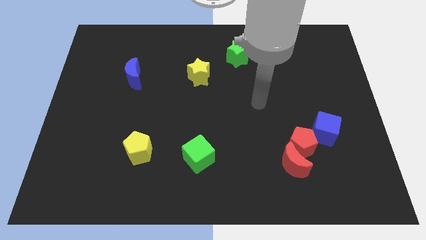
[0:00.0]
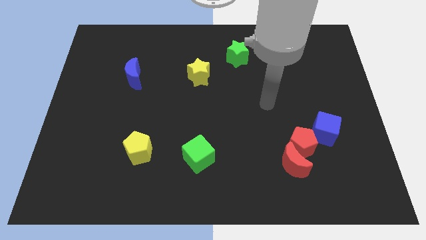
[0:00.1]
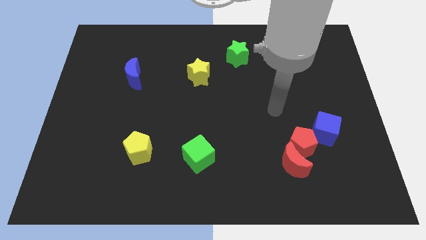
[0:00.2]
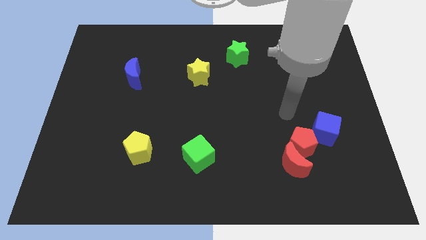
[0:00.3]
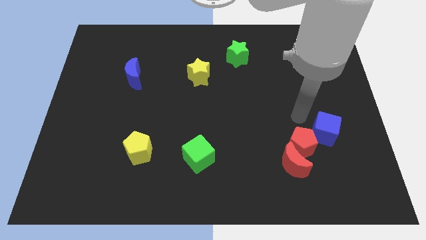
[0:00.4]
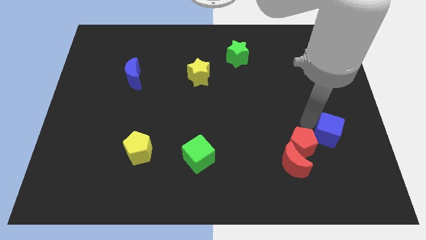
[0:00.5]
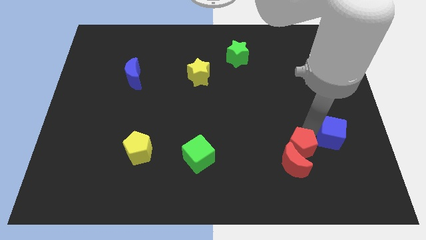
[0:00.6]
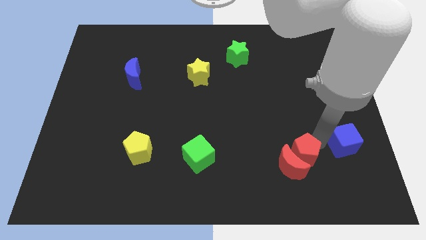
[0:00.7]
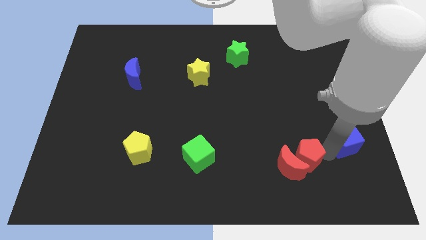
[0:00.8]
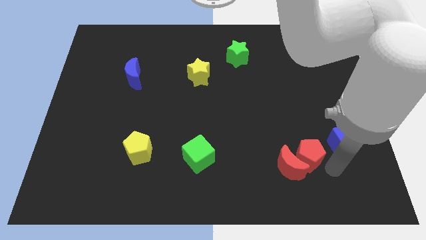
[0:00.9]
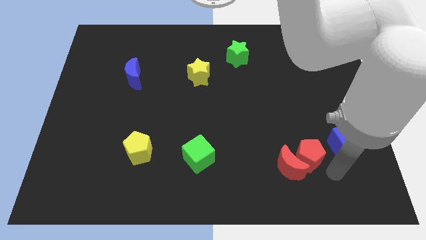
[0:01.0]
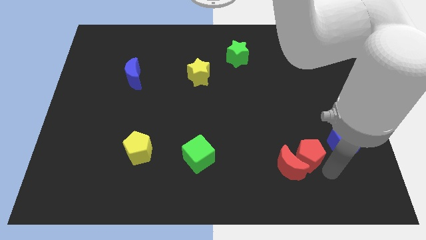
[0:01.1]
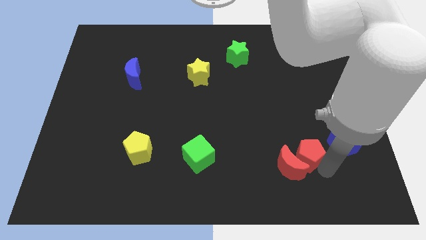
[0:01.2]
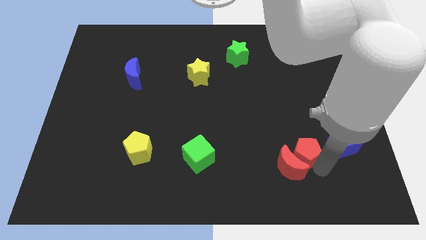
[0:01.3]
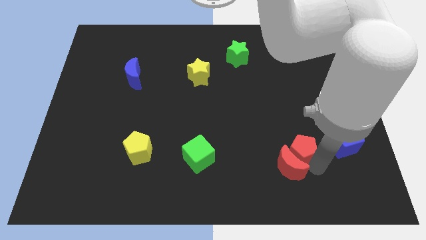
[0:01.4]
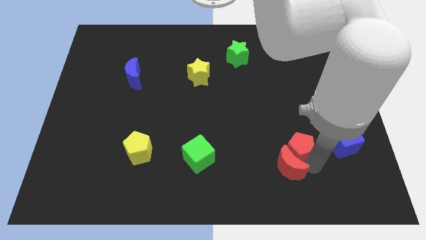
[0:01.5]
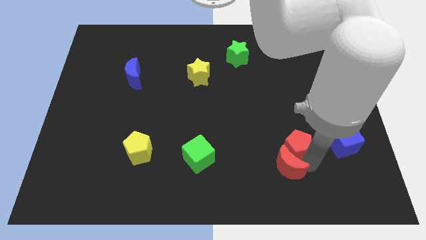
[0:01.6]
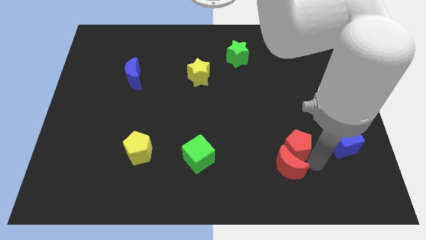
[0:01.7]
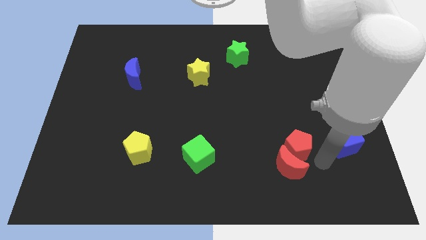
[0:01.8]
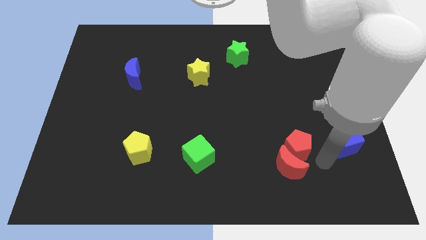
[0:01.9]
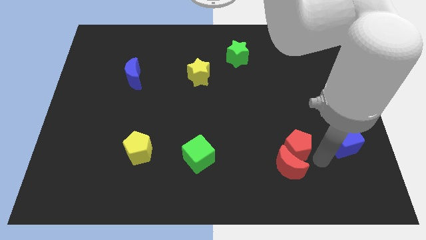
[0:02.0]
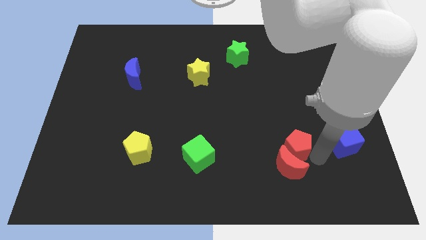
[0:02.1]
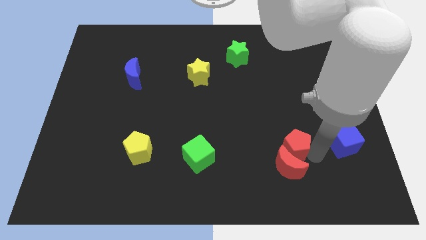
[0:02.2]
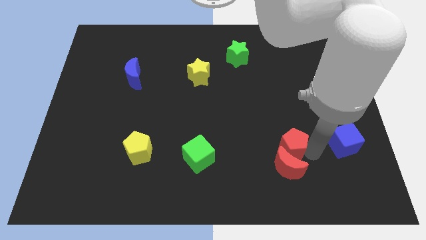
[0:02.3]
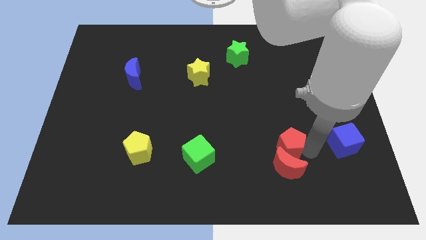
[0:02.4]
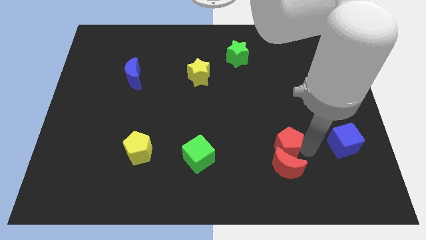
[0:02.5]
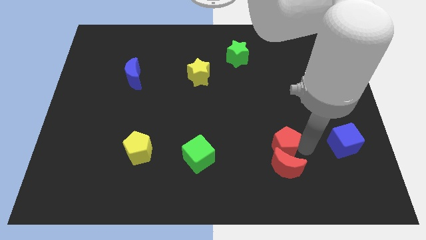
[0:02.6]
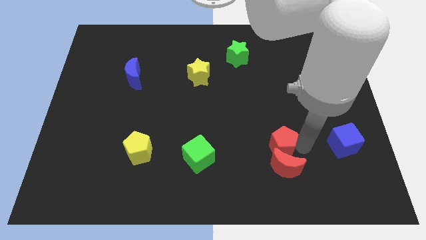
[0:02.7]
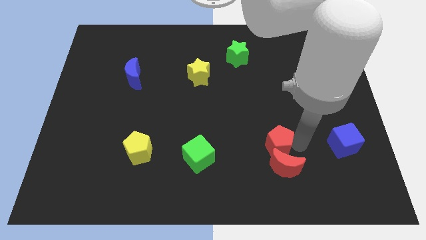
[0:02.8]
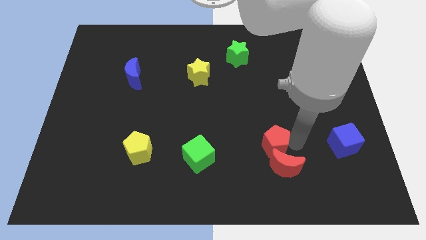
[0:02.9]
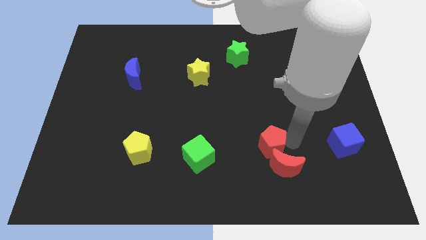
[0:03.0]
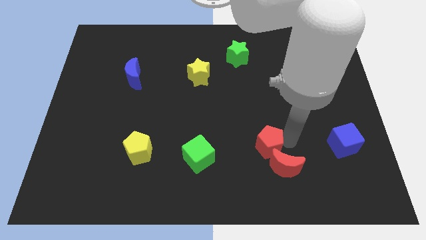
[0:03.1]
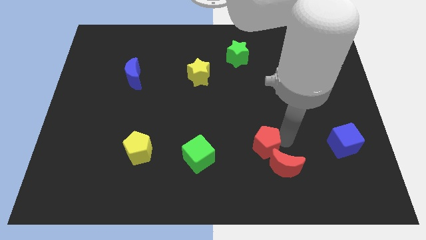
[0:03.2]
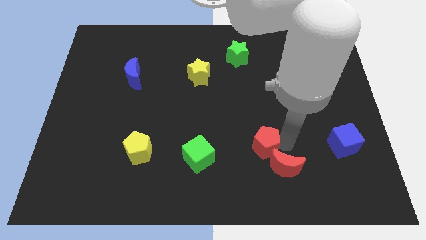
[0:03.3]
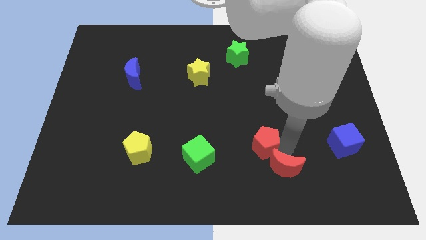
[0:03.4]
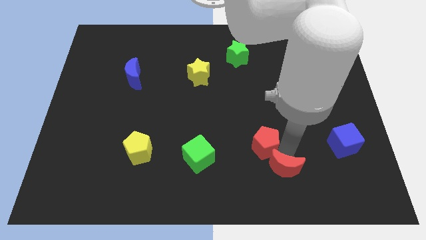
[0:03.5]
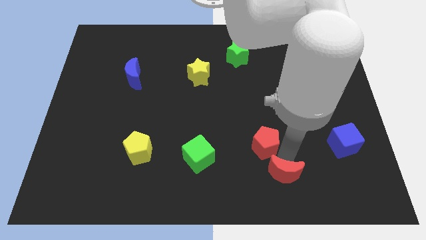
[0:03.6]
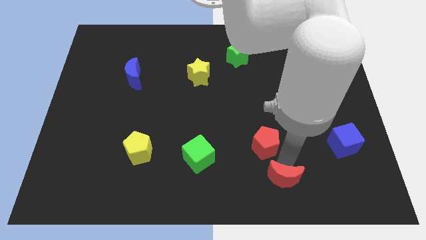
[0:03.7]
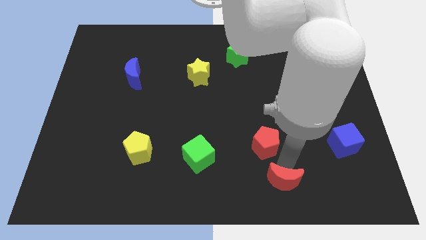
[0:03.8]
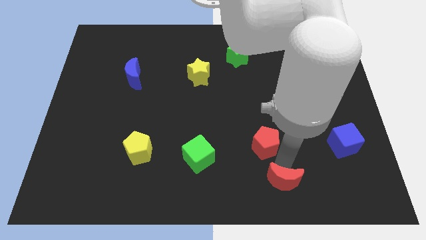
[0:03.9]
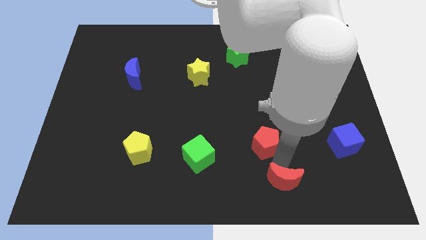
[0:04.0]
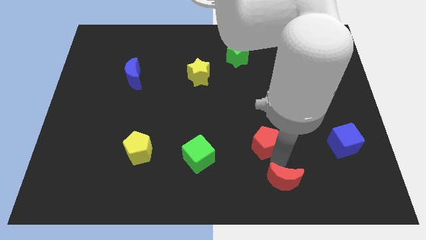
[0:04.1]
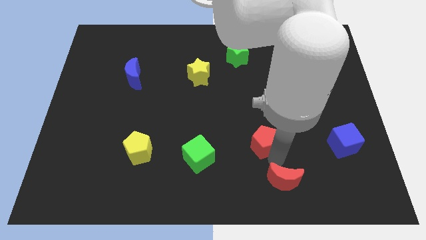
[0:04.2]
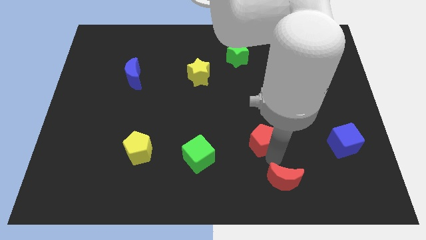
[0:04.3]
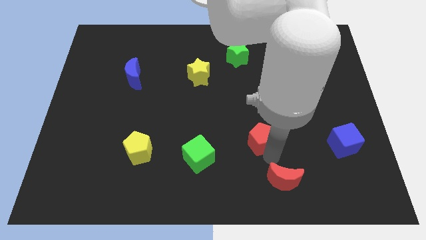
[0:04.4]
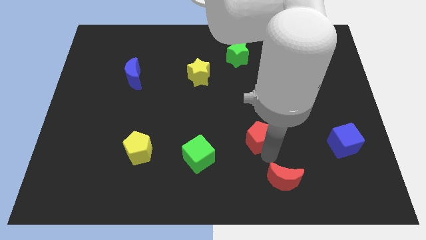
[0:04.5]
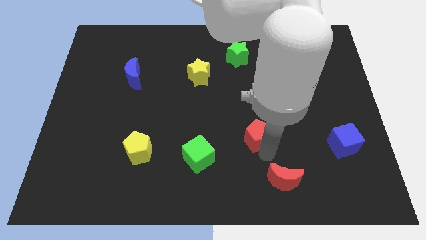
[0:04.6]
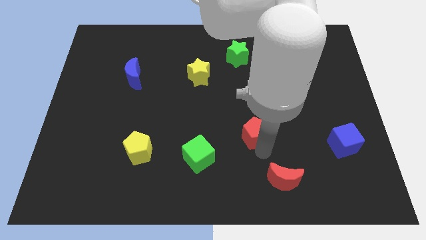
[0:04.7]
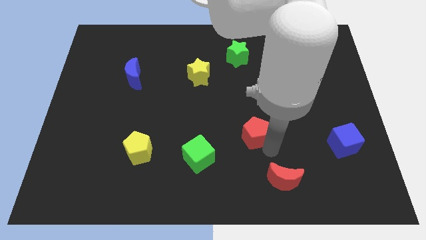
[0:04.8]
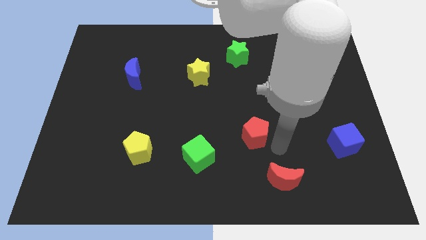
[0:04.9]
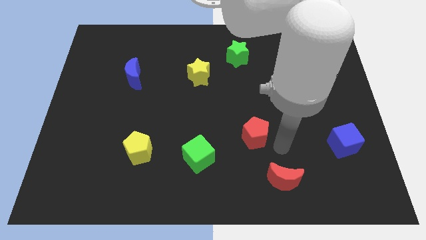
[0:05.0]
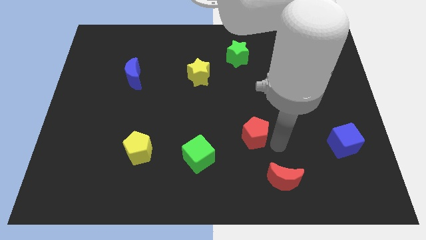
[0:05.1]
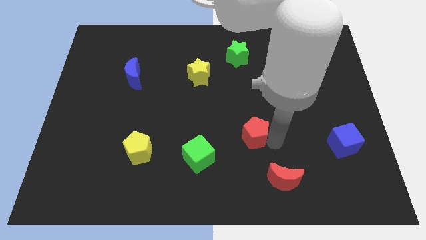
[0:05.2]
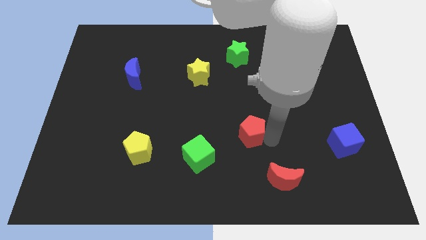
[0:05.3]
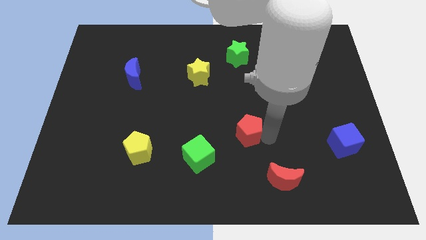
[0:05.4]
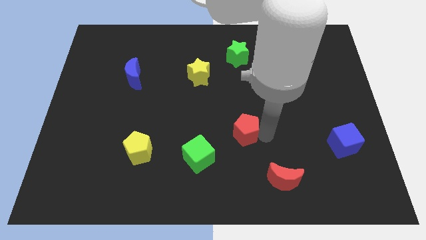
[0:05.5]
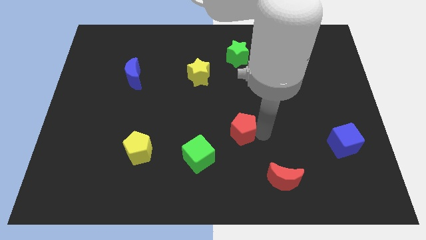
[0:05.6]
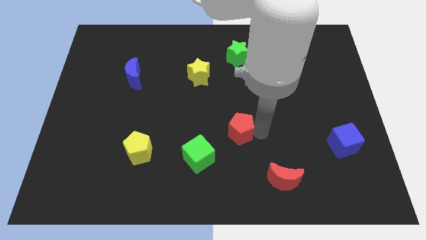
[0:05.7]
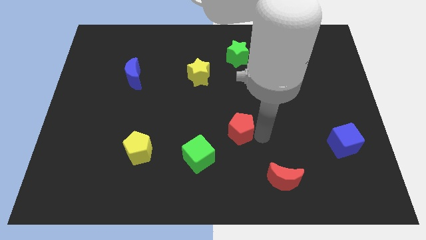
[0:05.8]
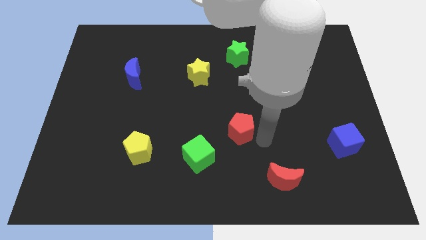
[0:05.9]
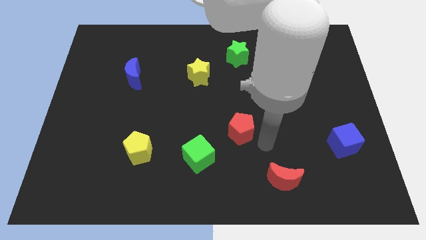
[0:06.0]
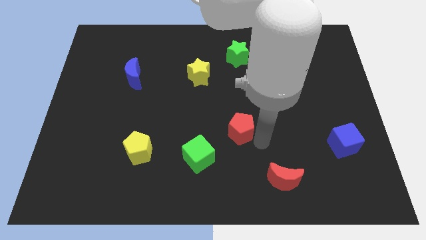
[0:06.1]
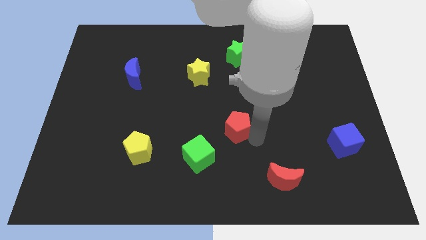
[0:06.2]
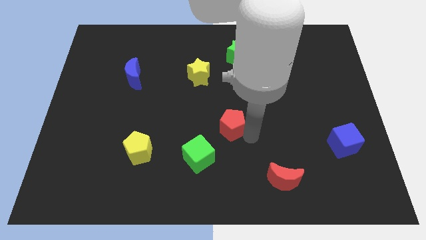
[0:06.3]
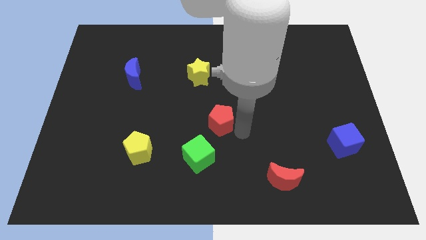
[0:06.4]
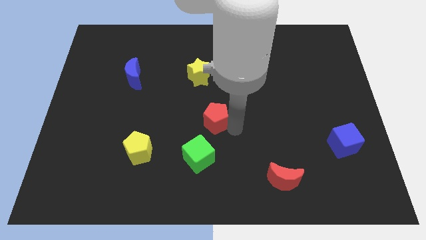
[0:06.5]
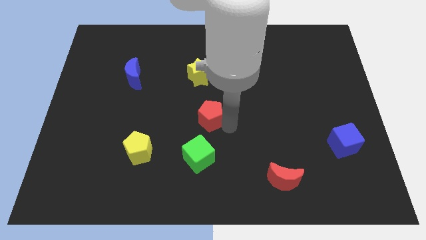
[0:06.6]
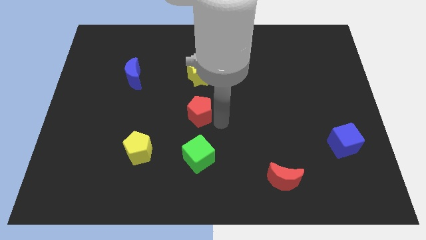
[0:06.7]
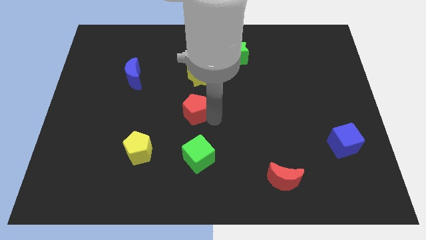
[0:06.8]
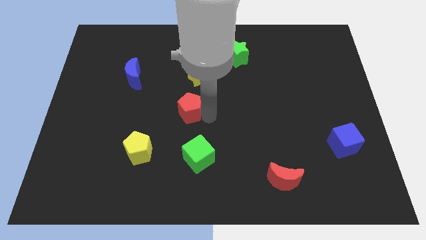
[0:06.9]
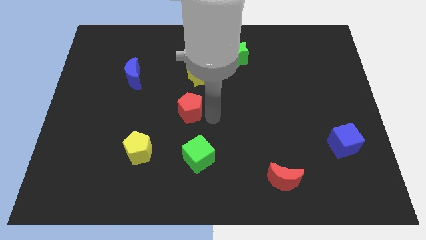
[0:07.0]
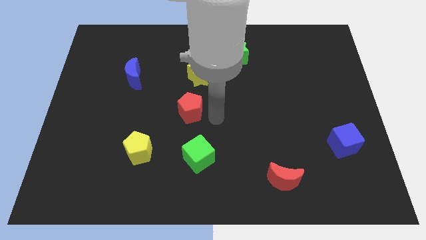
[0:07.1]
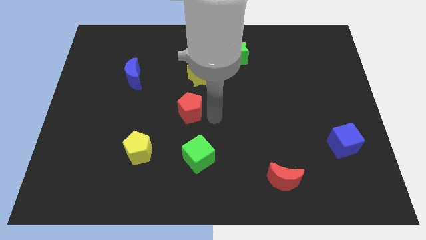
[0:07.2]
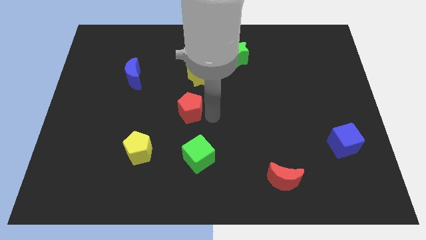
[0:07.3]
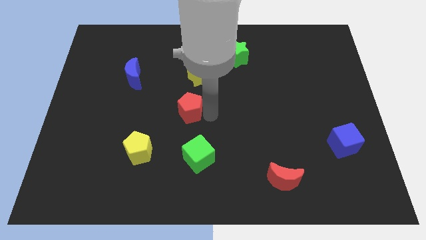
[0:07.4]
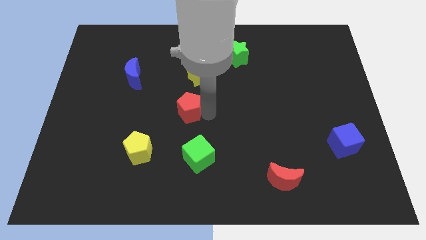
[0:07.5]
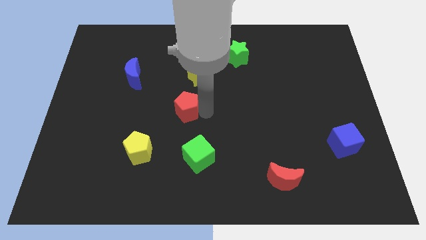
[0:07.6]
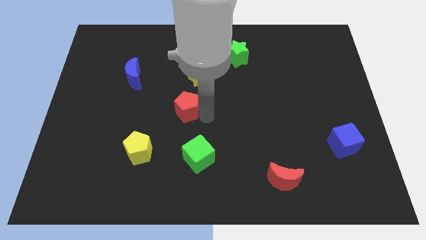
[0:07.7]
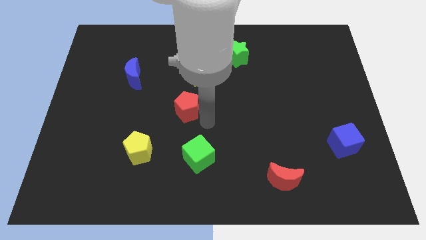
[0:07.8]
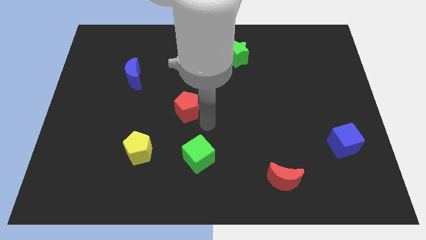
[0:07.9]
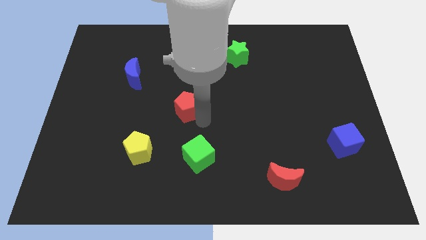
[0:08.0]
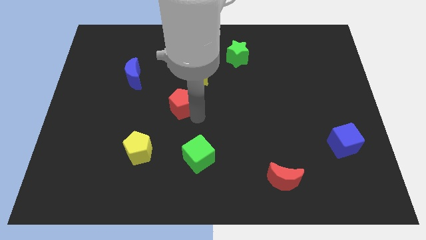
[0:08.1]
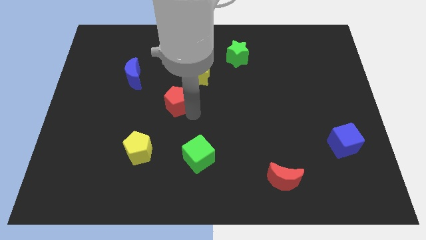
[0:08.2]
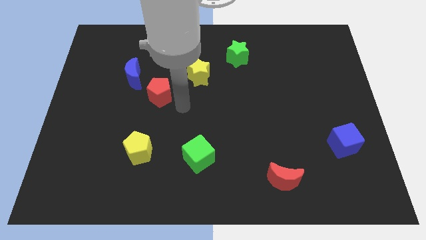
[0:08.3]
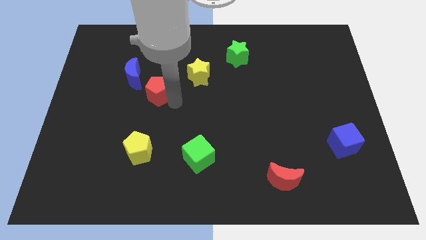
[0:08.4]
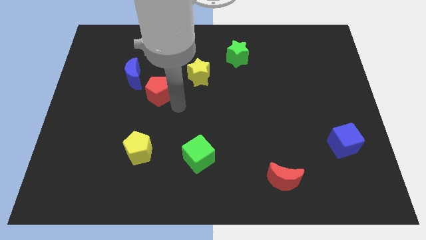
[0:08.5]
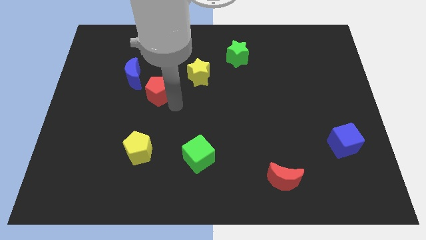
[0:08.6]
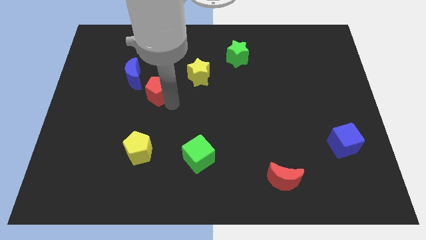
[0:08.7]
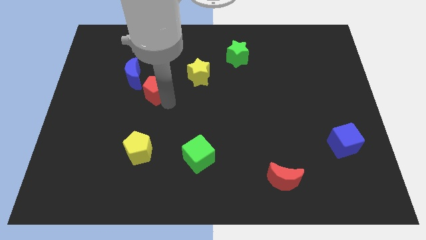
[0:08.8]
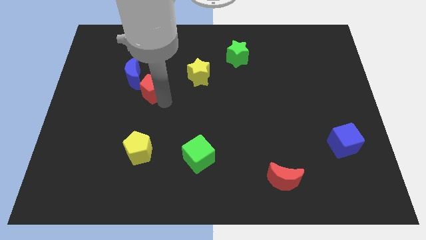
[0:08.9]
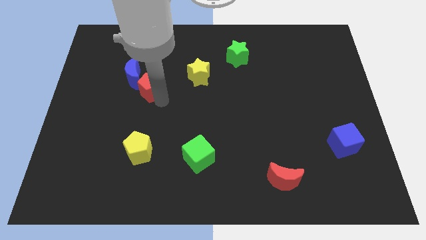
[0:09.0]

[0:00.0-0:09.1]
slide the red pentagon towards the blue moon
